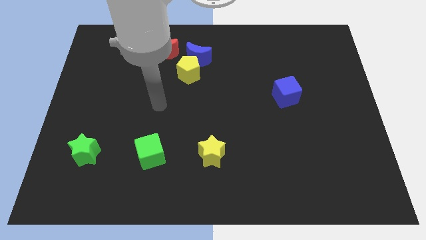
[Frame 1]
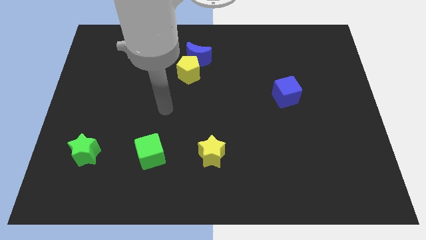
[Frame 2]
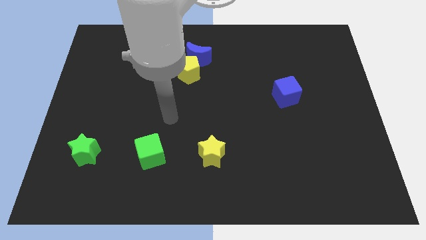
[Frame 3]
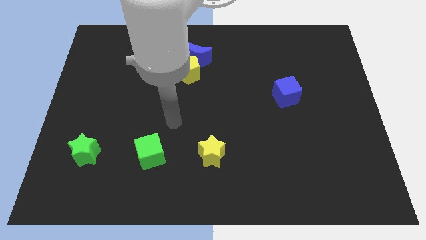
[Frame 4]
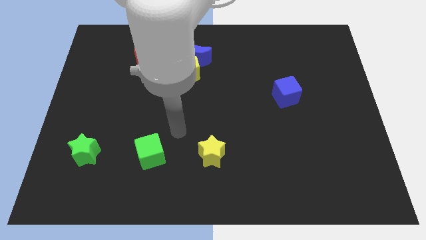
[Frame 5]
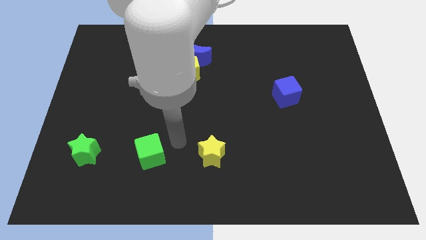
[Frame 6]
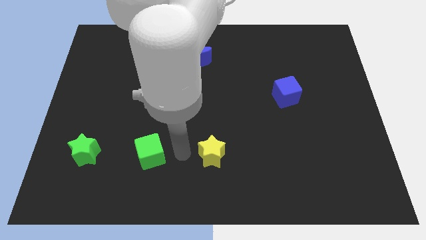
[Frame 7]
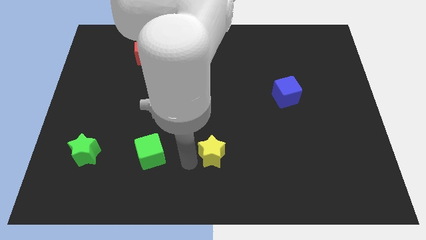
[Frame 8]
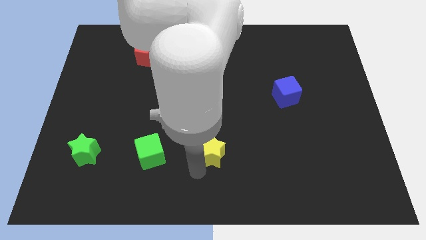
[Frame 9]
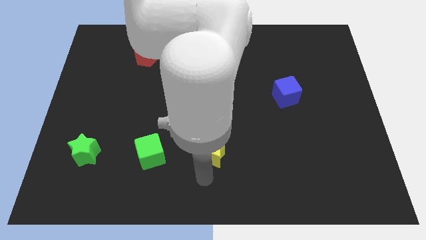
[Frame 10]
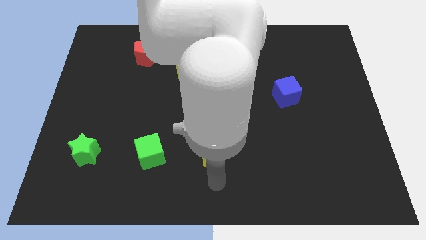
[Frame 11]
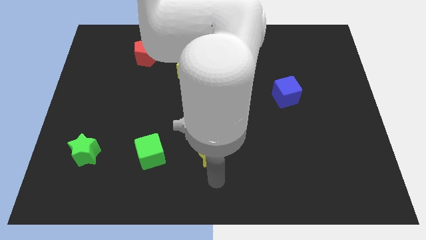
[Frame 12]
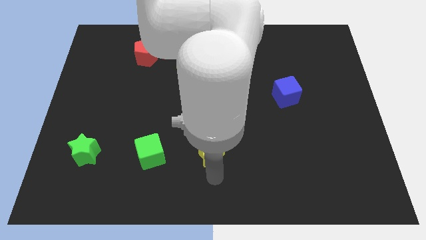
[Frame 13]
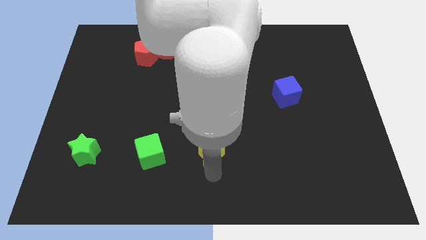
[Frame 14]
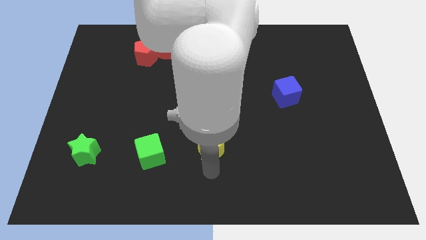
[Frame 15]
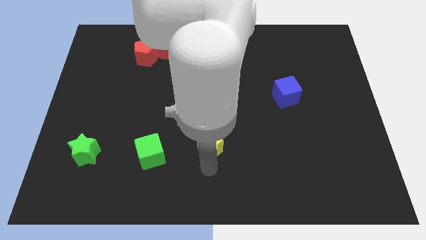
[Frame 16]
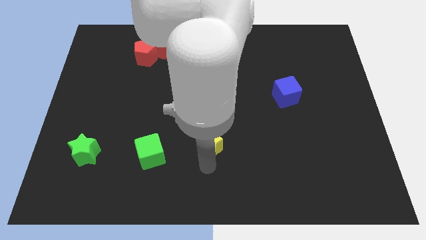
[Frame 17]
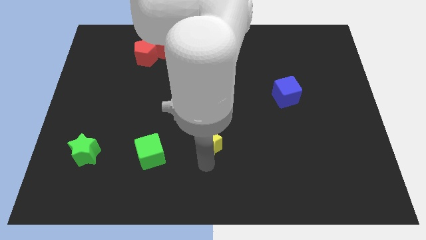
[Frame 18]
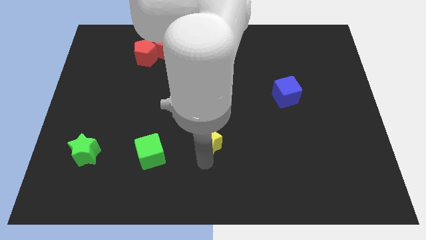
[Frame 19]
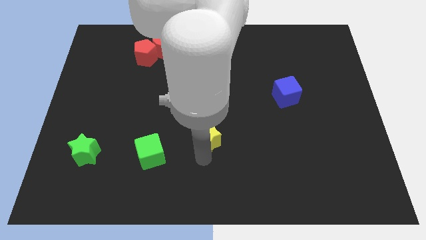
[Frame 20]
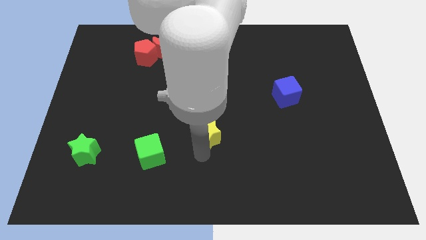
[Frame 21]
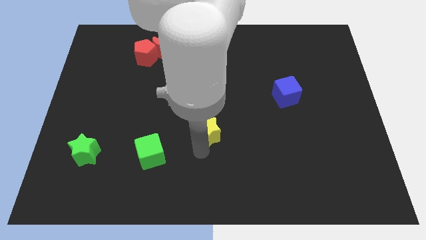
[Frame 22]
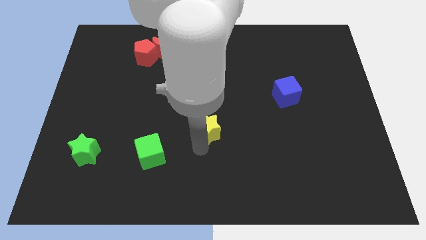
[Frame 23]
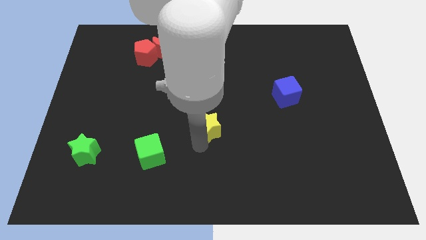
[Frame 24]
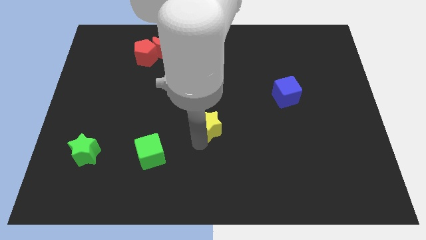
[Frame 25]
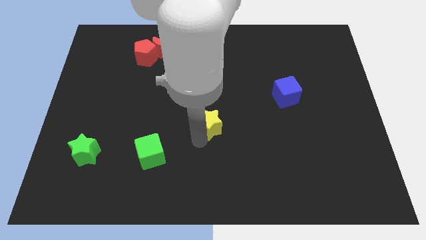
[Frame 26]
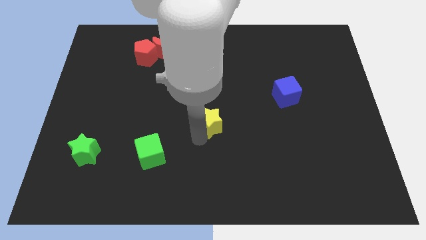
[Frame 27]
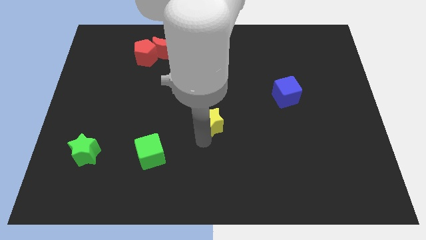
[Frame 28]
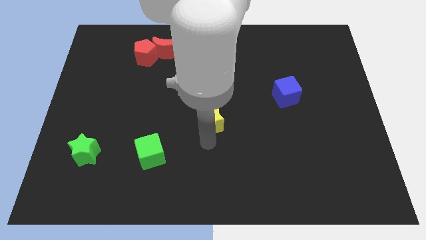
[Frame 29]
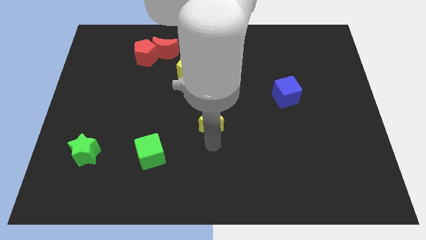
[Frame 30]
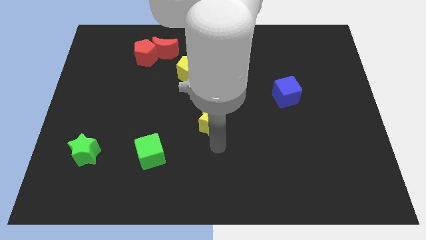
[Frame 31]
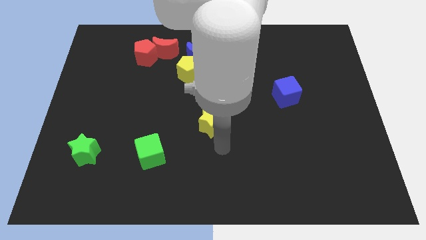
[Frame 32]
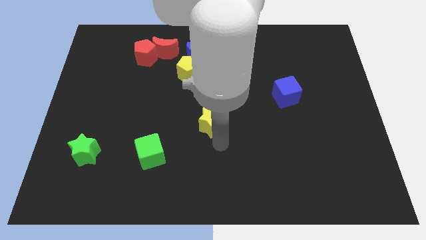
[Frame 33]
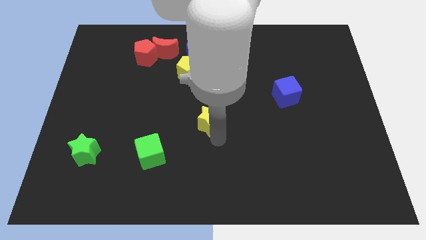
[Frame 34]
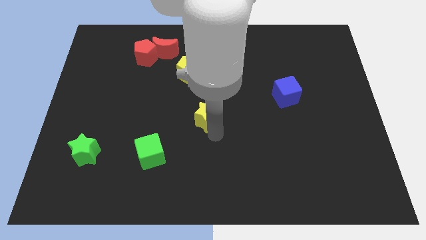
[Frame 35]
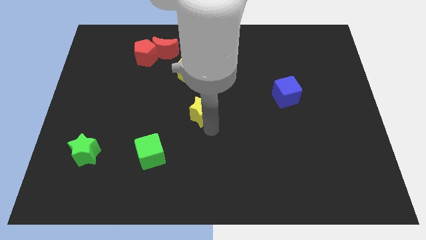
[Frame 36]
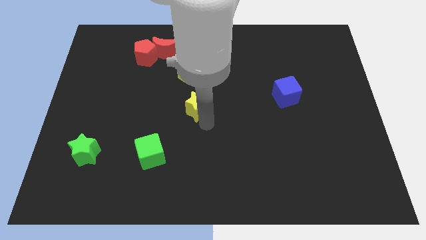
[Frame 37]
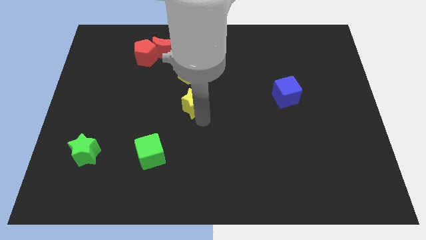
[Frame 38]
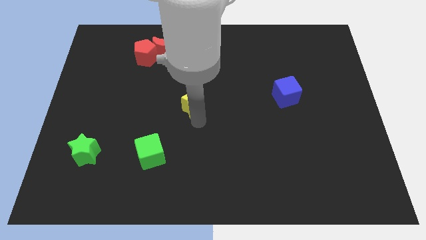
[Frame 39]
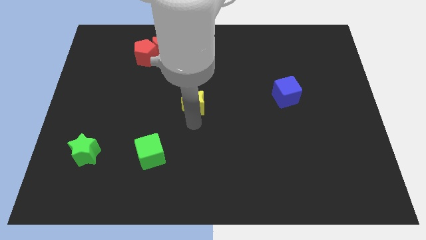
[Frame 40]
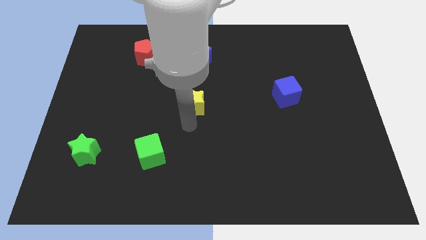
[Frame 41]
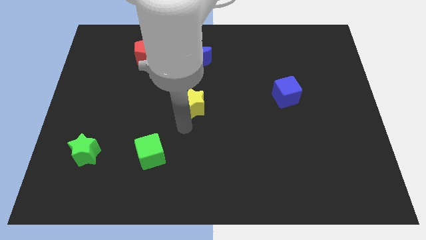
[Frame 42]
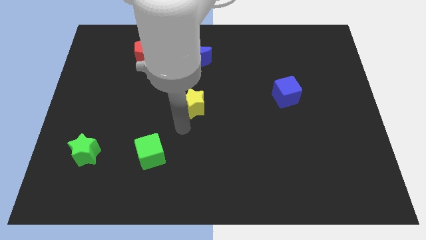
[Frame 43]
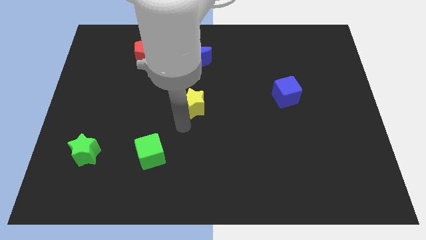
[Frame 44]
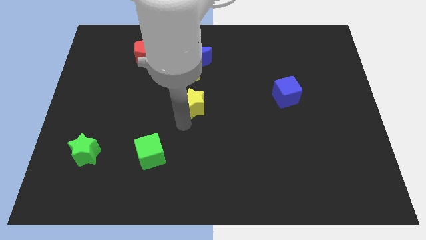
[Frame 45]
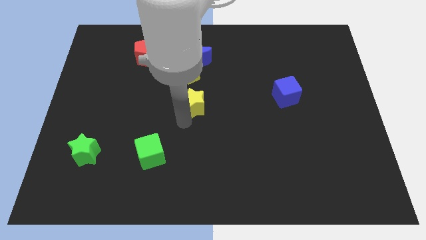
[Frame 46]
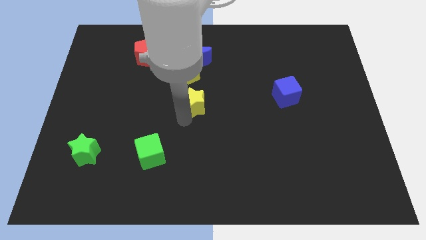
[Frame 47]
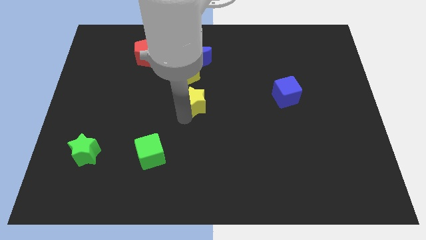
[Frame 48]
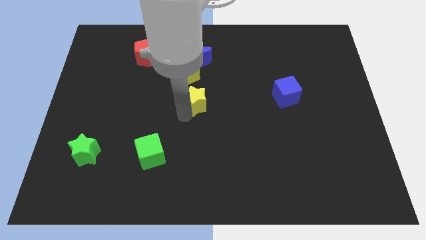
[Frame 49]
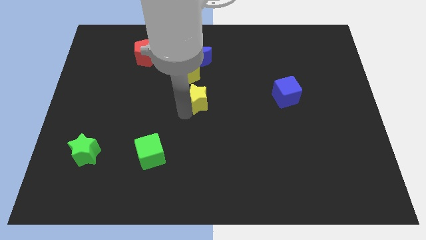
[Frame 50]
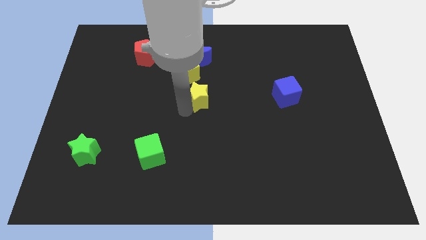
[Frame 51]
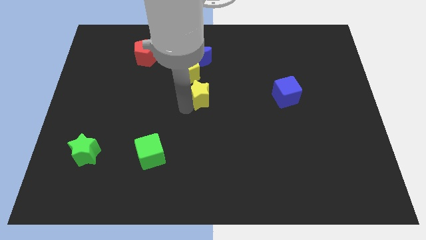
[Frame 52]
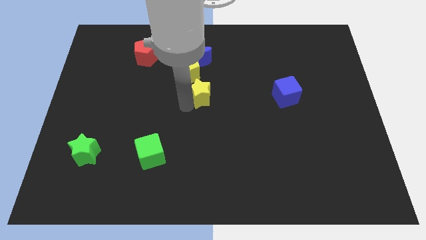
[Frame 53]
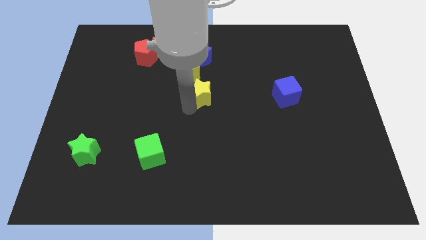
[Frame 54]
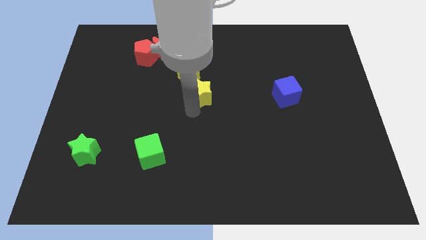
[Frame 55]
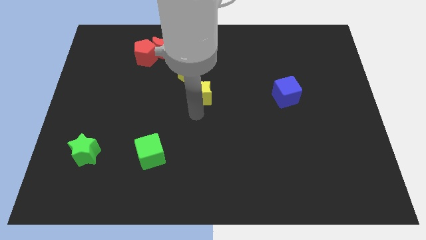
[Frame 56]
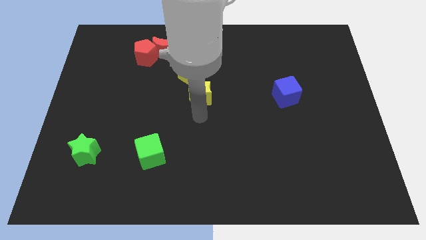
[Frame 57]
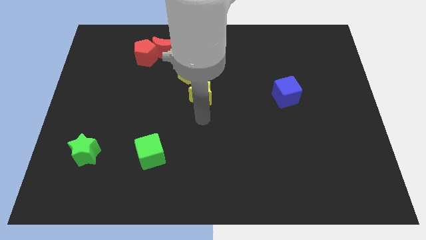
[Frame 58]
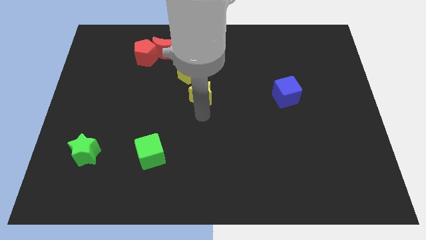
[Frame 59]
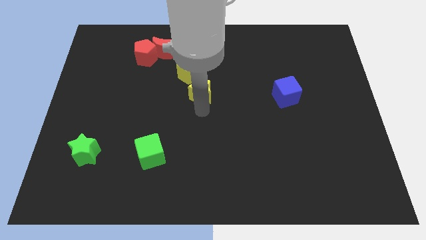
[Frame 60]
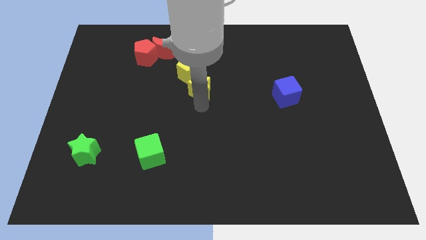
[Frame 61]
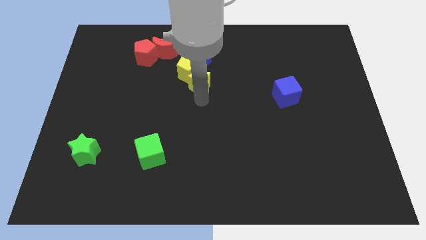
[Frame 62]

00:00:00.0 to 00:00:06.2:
put the yellow star close to the yellow pentagon

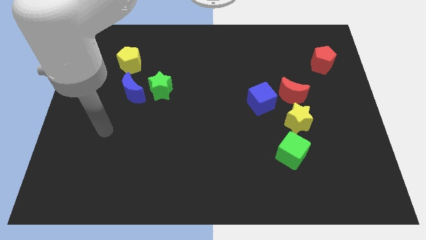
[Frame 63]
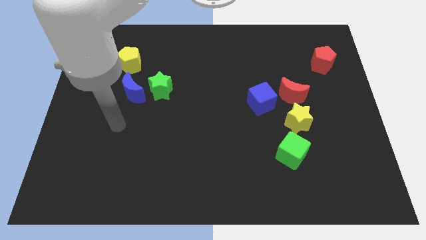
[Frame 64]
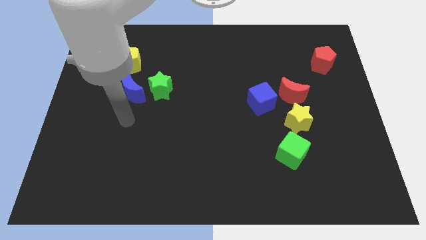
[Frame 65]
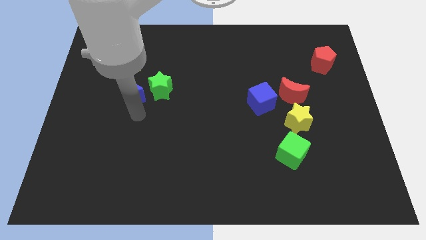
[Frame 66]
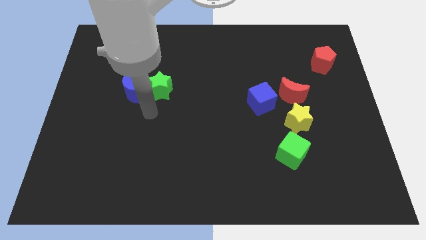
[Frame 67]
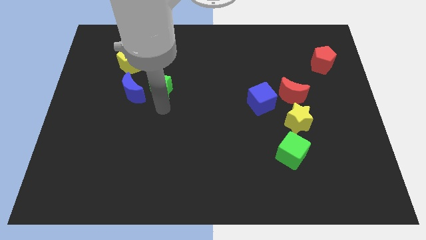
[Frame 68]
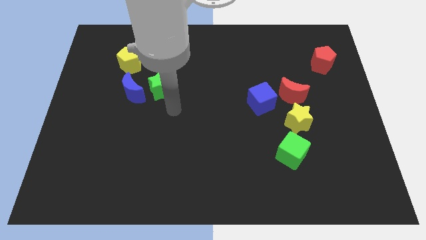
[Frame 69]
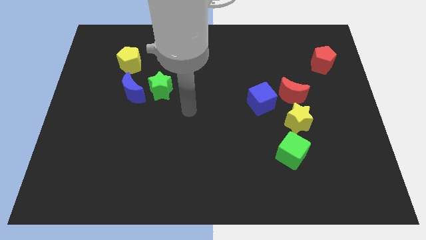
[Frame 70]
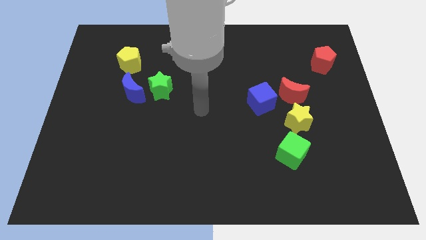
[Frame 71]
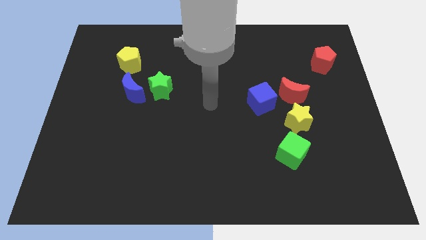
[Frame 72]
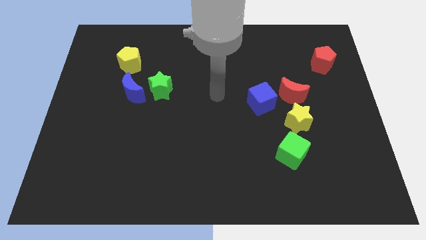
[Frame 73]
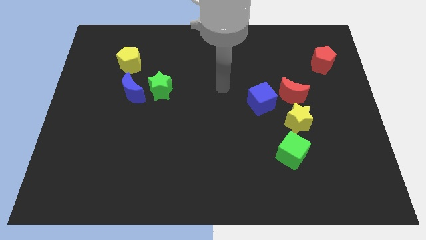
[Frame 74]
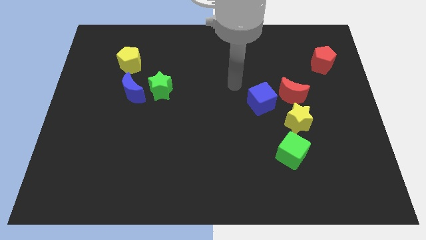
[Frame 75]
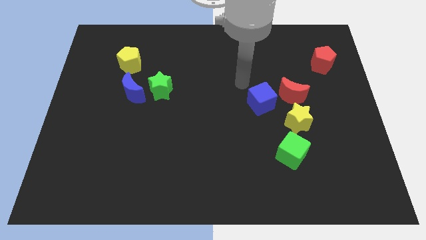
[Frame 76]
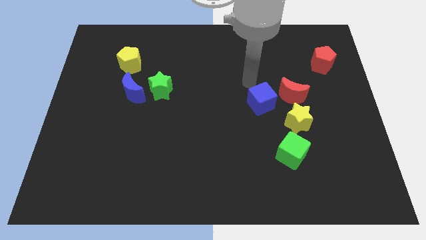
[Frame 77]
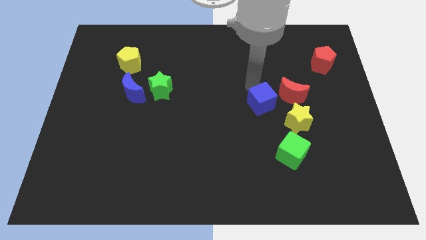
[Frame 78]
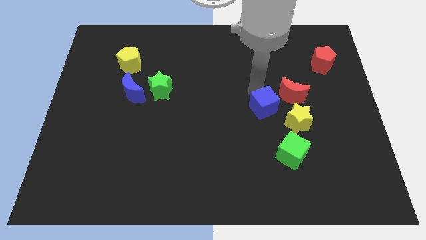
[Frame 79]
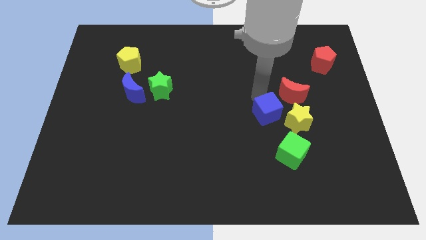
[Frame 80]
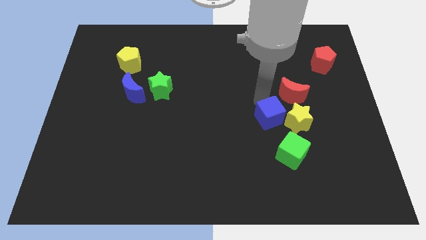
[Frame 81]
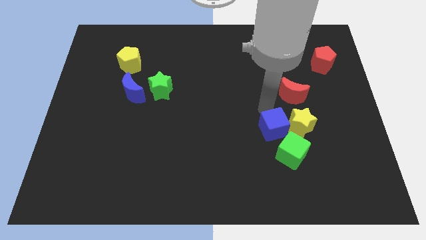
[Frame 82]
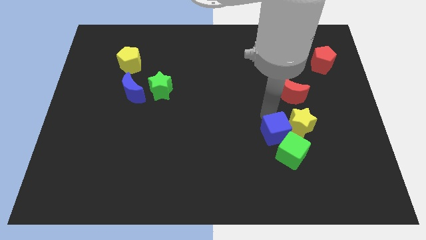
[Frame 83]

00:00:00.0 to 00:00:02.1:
put the blue cube next to the green cube

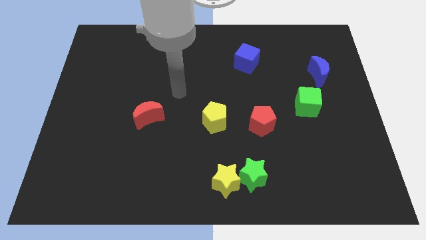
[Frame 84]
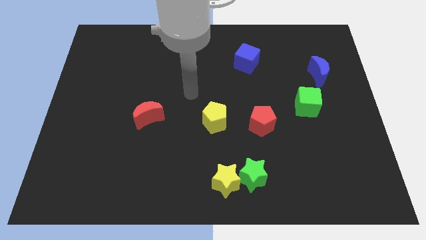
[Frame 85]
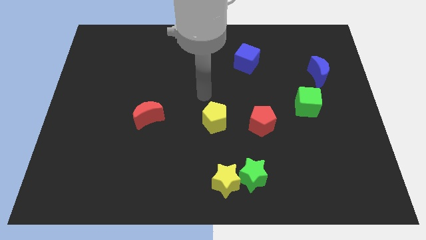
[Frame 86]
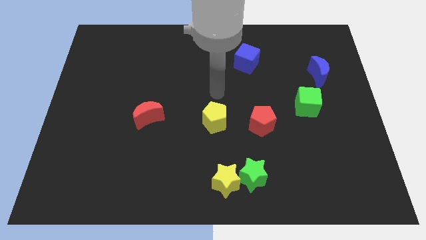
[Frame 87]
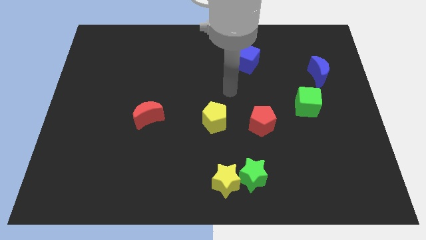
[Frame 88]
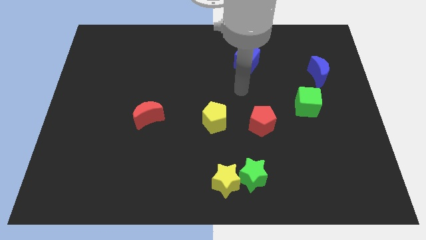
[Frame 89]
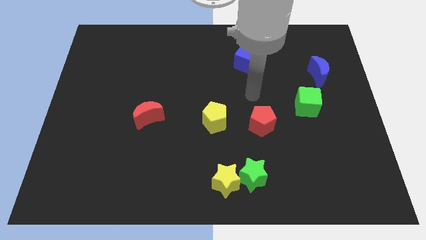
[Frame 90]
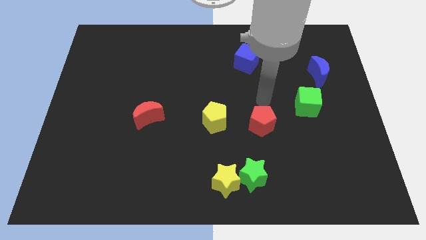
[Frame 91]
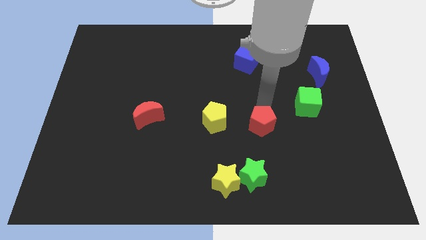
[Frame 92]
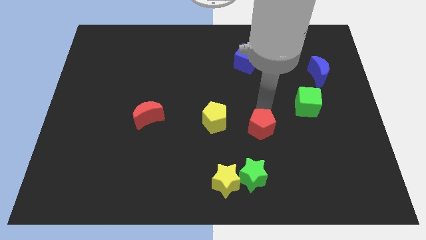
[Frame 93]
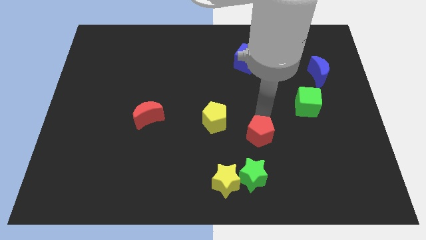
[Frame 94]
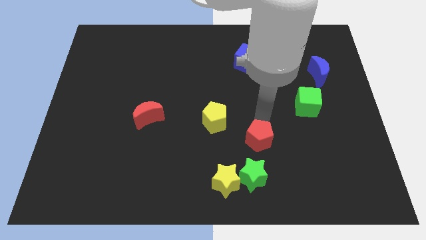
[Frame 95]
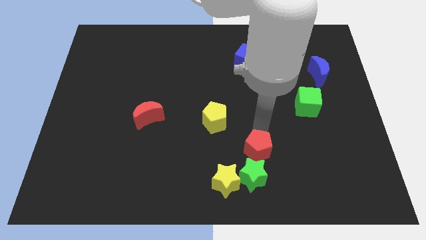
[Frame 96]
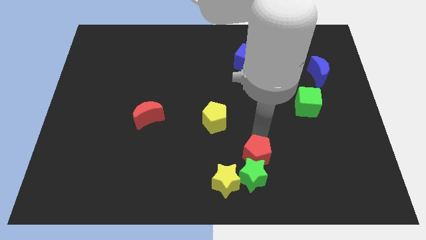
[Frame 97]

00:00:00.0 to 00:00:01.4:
put the red pentagon towards the green star
